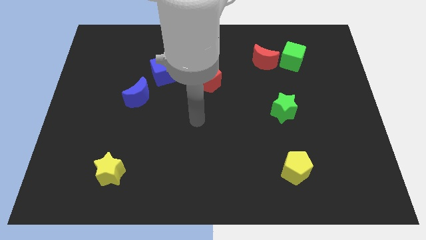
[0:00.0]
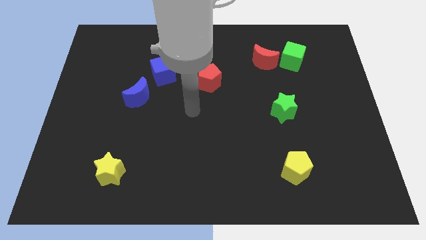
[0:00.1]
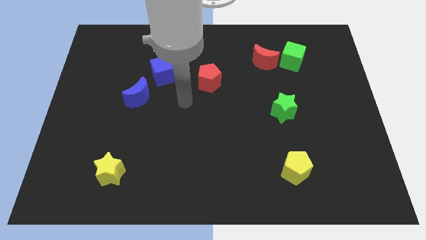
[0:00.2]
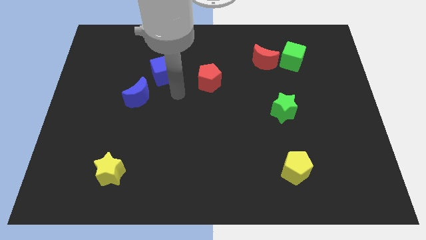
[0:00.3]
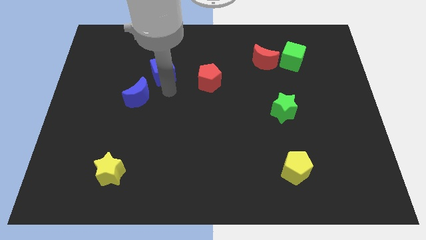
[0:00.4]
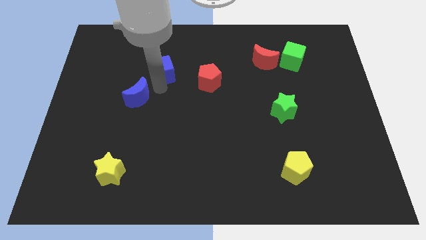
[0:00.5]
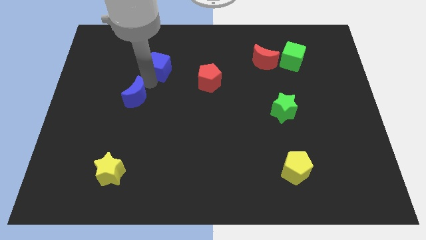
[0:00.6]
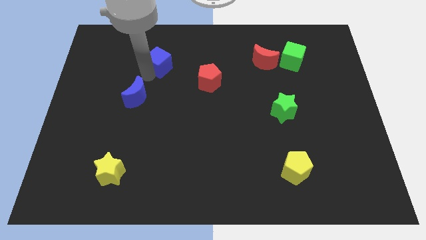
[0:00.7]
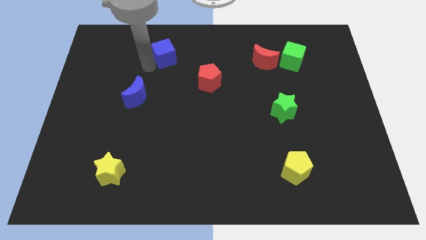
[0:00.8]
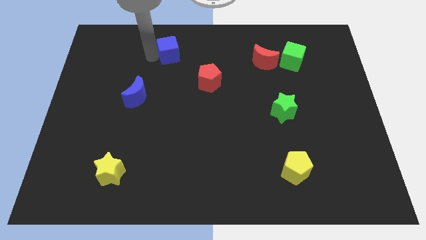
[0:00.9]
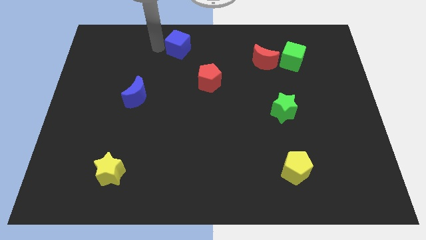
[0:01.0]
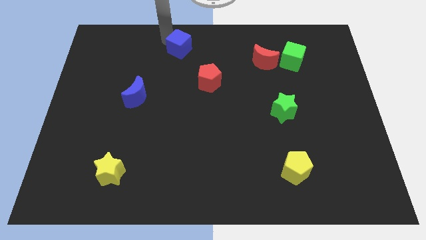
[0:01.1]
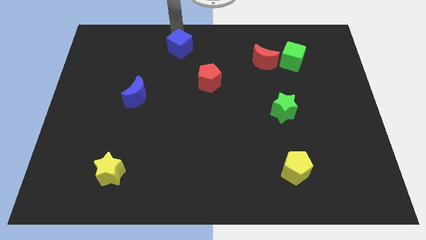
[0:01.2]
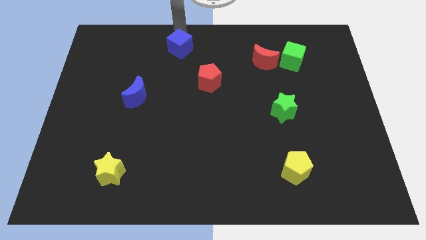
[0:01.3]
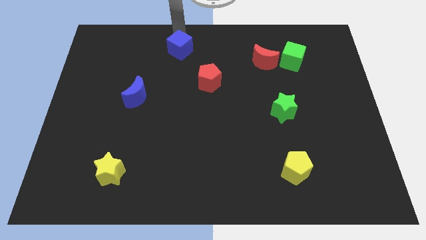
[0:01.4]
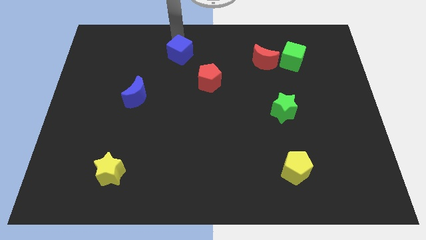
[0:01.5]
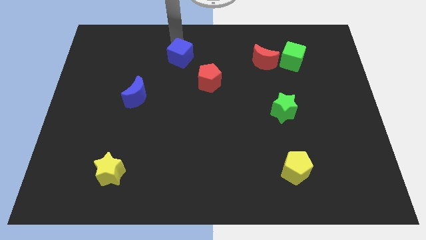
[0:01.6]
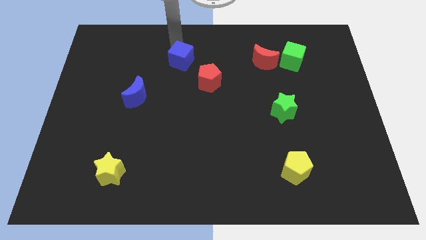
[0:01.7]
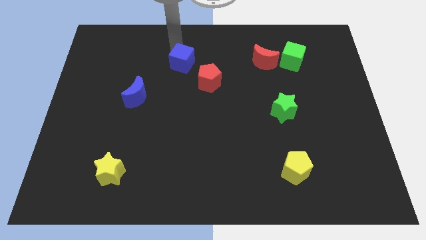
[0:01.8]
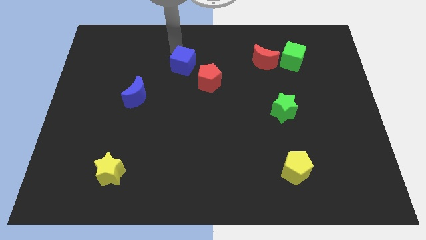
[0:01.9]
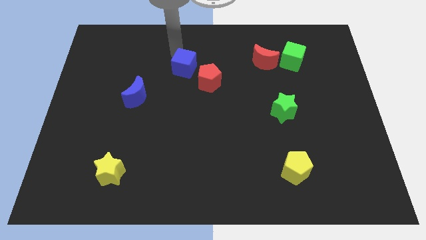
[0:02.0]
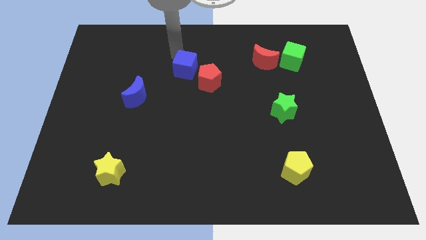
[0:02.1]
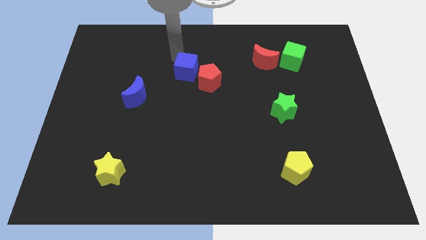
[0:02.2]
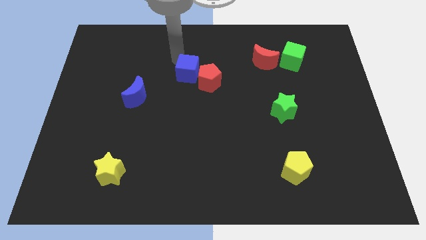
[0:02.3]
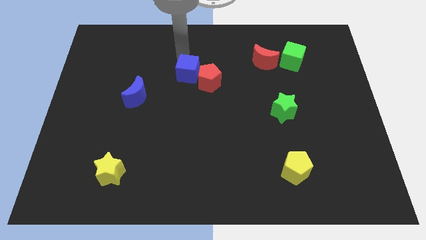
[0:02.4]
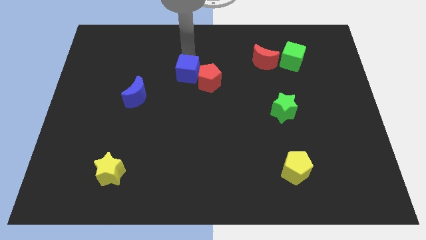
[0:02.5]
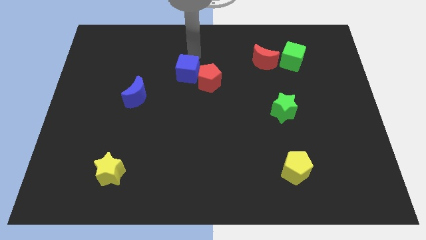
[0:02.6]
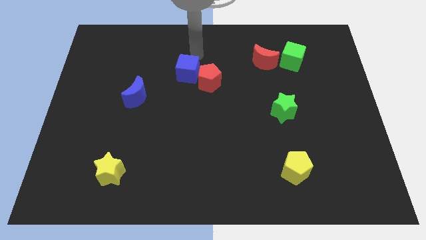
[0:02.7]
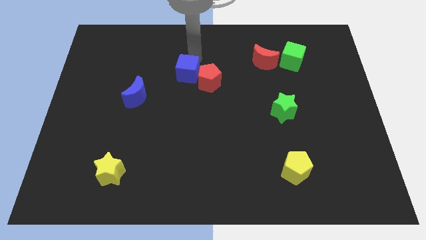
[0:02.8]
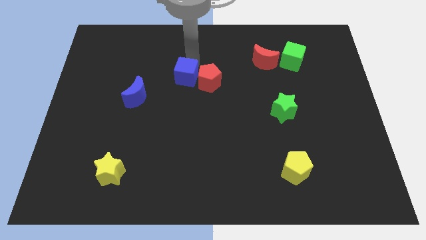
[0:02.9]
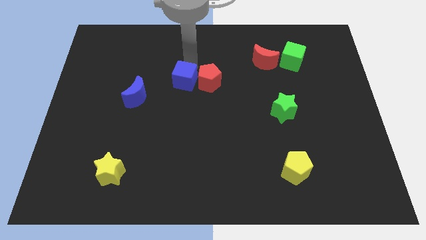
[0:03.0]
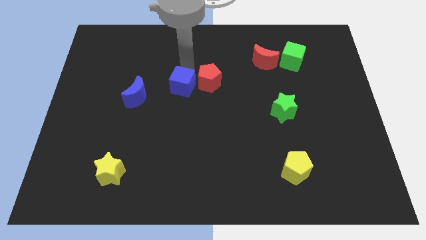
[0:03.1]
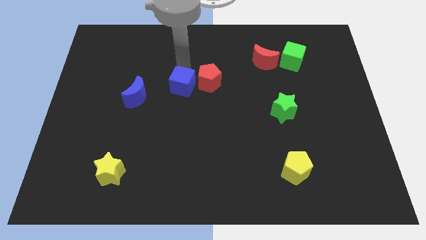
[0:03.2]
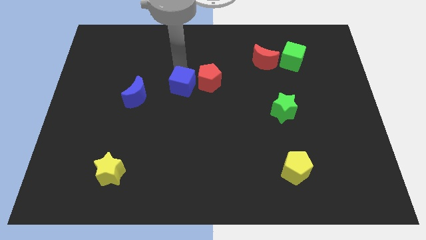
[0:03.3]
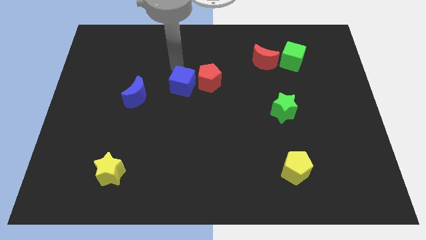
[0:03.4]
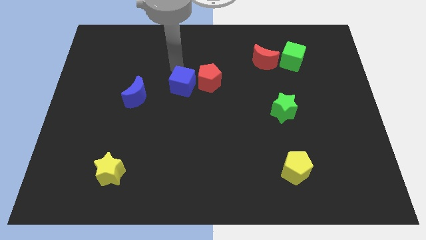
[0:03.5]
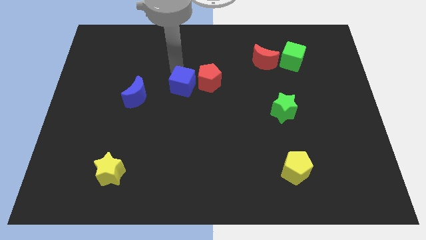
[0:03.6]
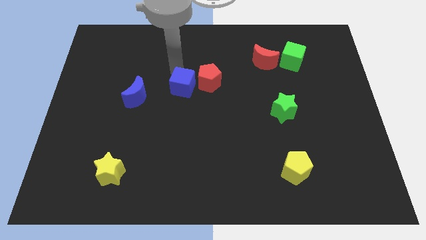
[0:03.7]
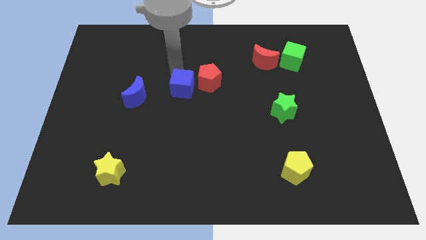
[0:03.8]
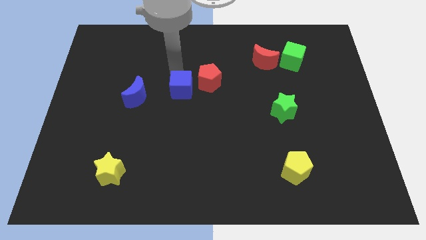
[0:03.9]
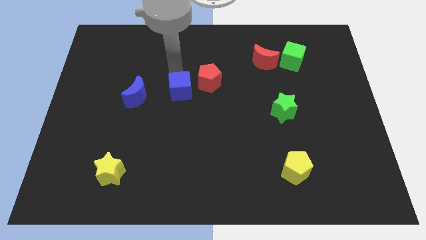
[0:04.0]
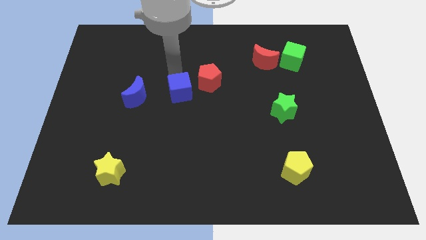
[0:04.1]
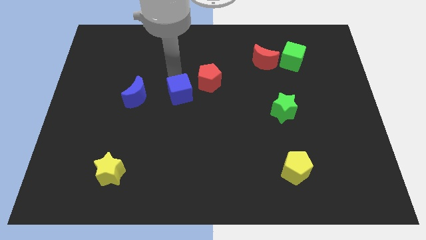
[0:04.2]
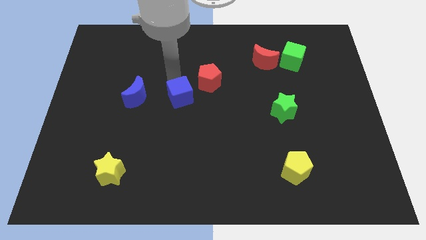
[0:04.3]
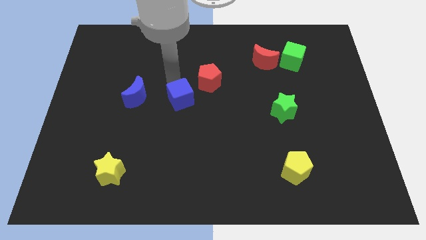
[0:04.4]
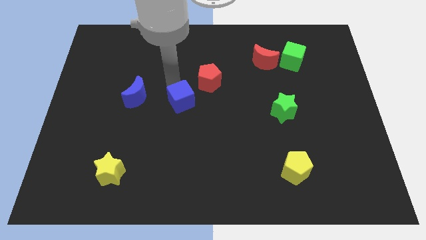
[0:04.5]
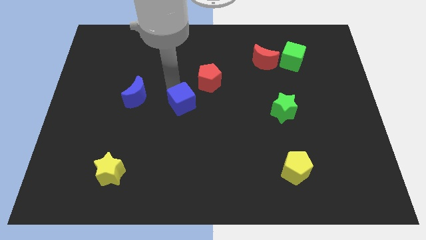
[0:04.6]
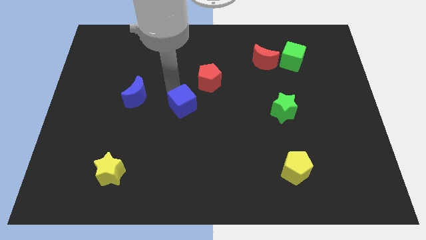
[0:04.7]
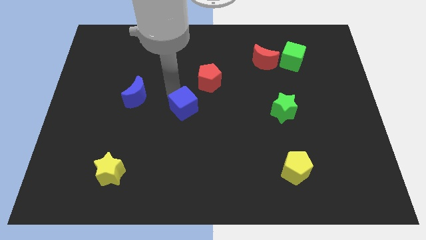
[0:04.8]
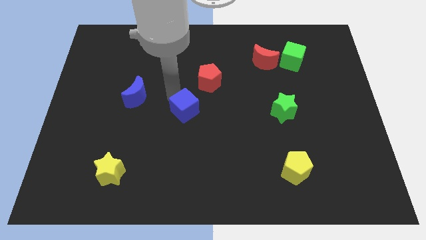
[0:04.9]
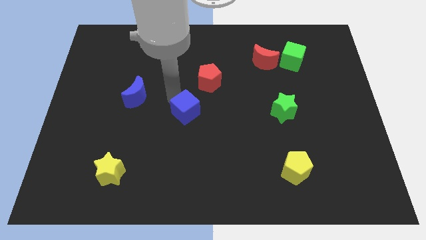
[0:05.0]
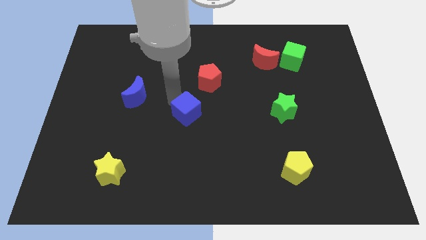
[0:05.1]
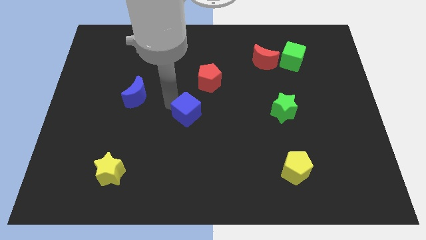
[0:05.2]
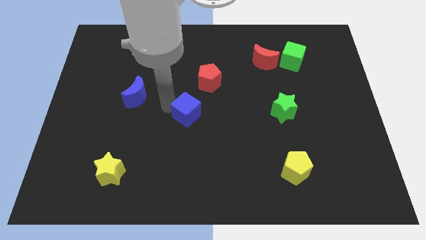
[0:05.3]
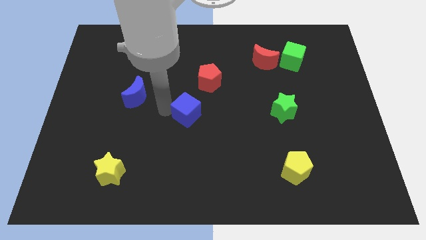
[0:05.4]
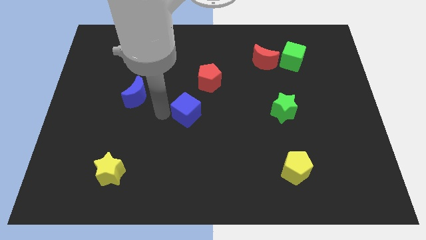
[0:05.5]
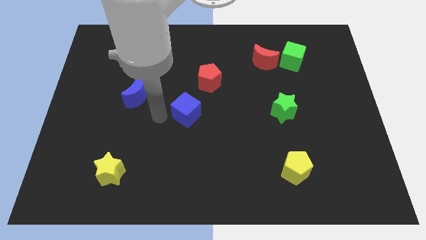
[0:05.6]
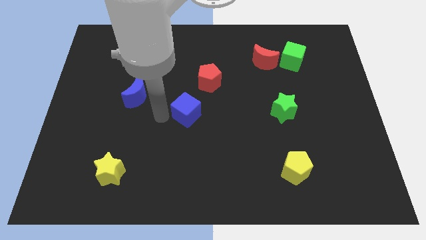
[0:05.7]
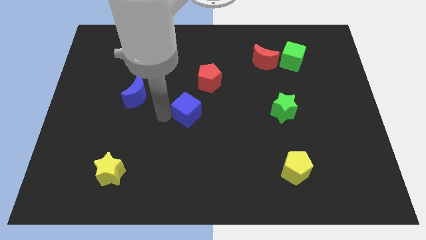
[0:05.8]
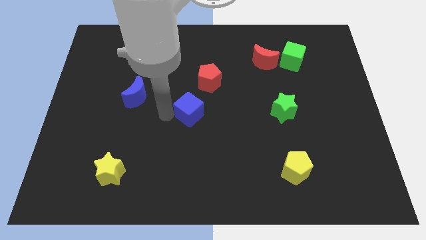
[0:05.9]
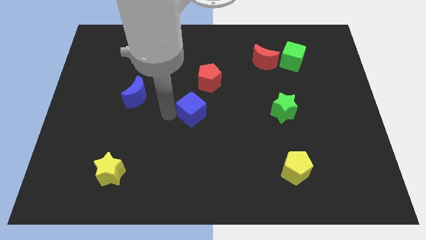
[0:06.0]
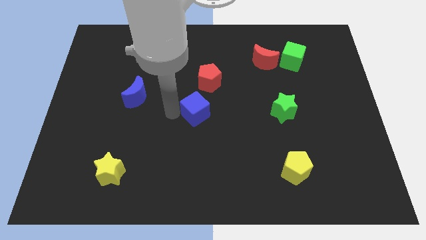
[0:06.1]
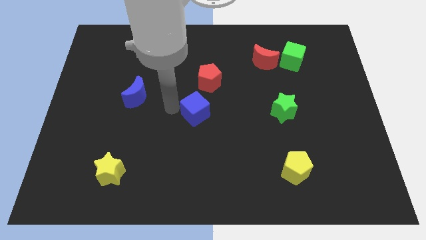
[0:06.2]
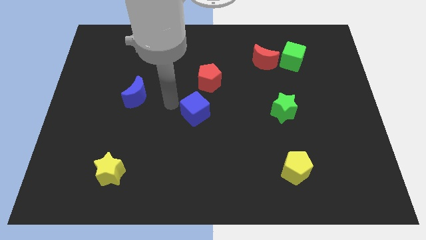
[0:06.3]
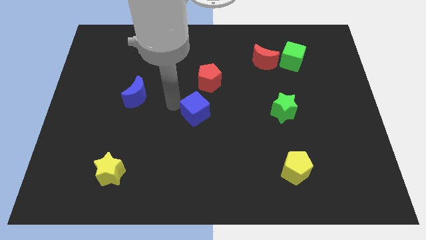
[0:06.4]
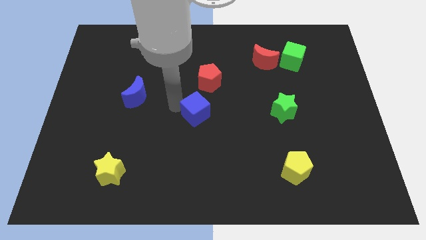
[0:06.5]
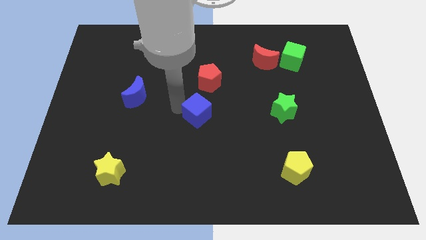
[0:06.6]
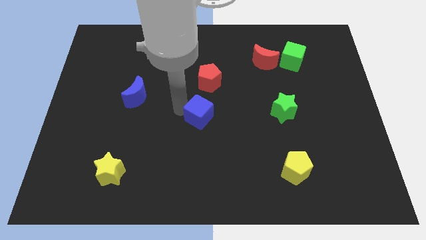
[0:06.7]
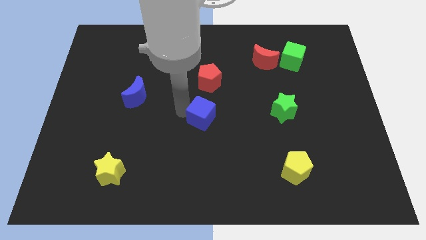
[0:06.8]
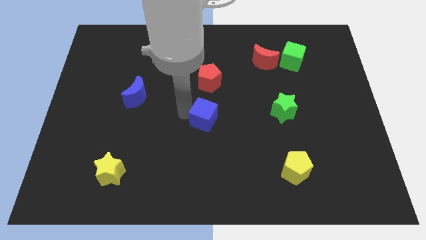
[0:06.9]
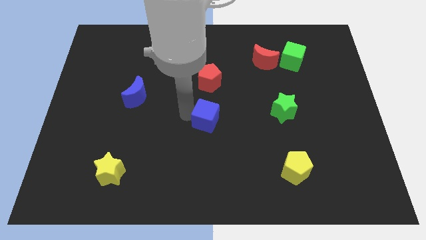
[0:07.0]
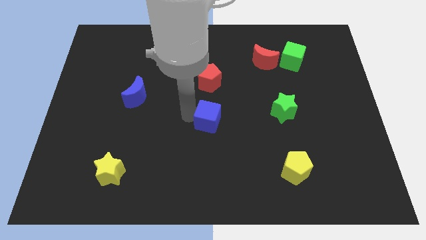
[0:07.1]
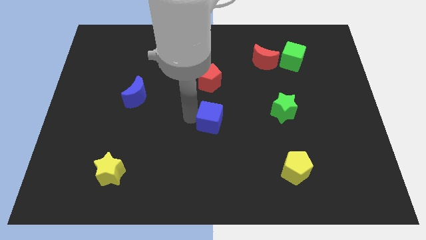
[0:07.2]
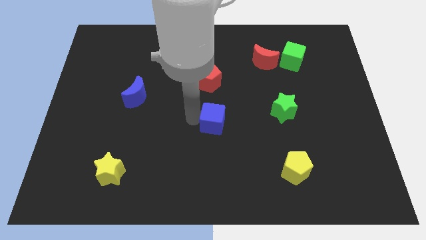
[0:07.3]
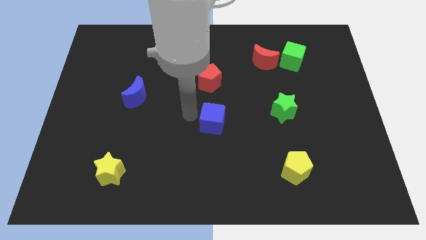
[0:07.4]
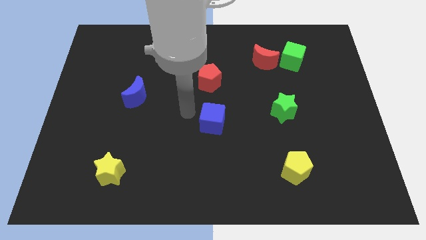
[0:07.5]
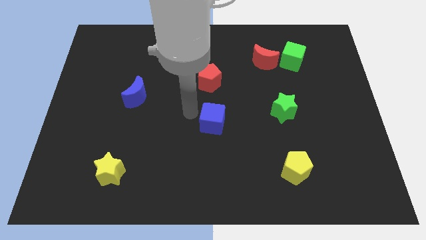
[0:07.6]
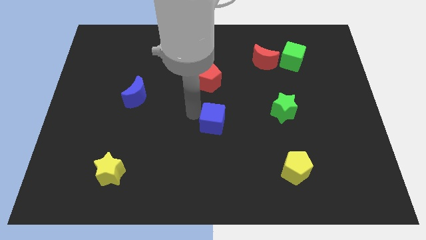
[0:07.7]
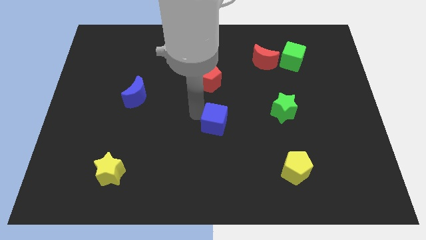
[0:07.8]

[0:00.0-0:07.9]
move the blue cube down and right diagonally
